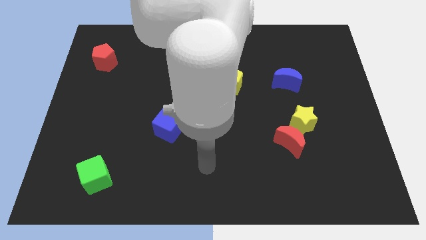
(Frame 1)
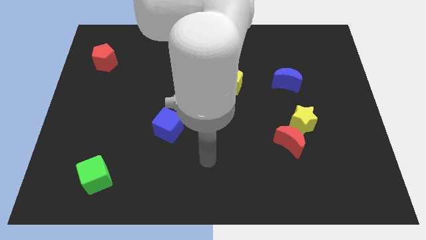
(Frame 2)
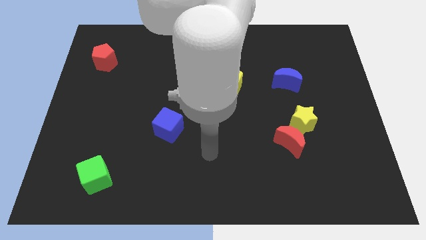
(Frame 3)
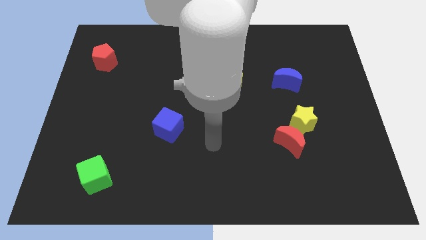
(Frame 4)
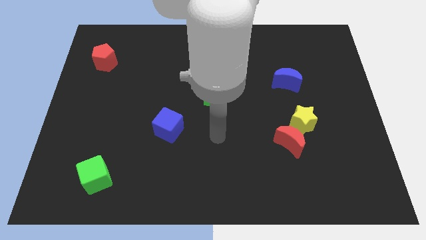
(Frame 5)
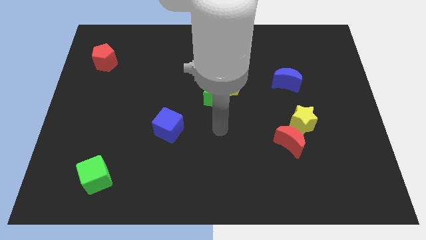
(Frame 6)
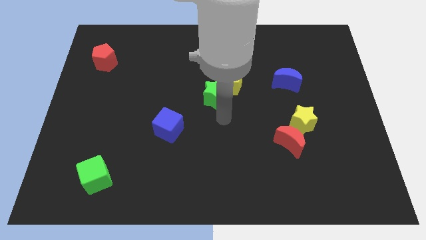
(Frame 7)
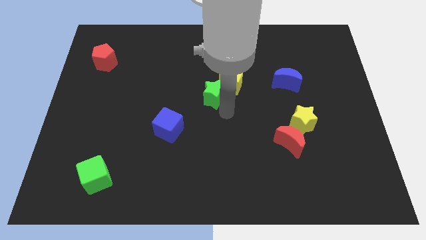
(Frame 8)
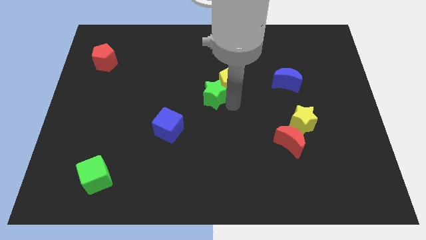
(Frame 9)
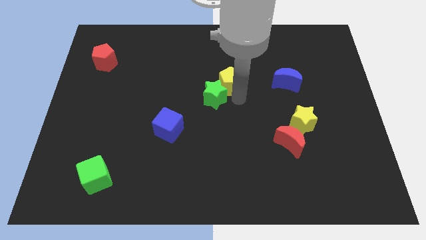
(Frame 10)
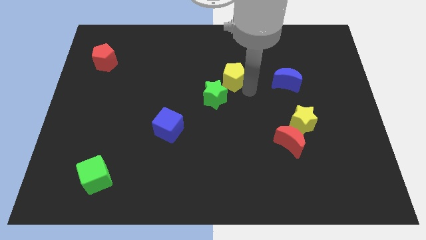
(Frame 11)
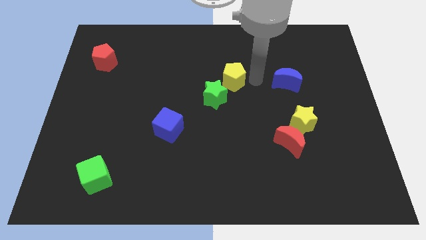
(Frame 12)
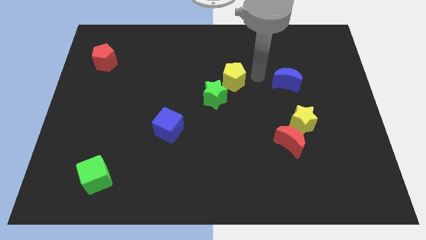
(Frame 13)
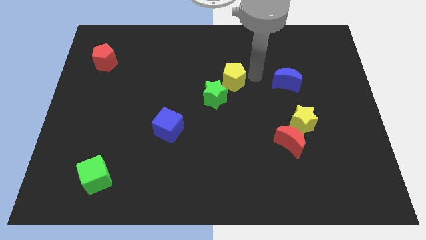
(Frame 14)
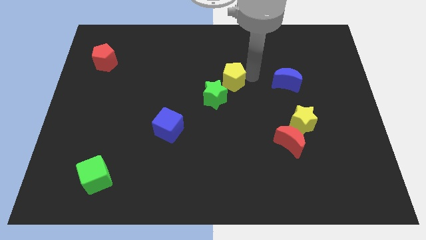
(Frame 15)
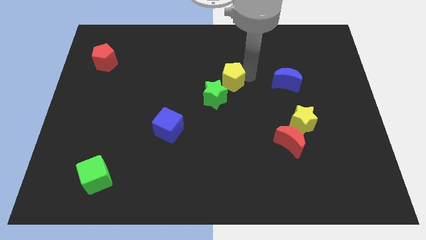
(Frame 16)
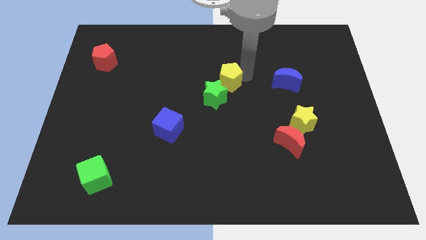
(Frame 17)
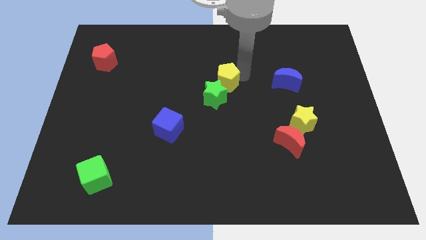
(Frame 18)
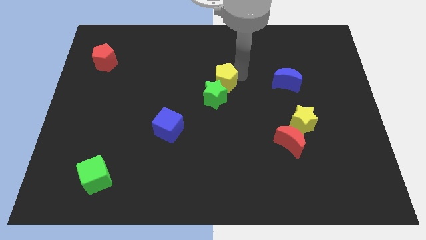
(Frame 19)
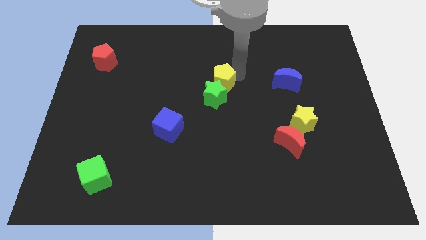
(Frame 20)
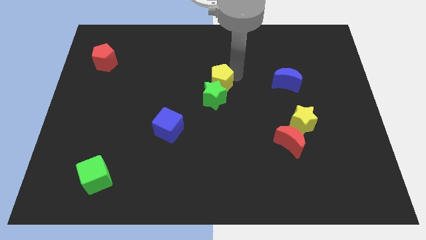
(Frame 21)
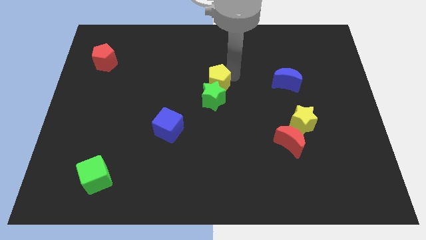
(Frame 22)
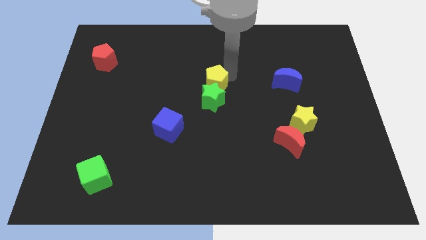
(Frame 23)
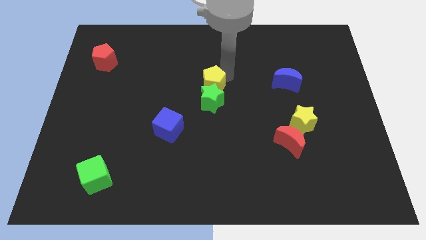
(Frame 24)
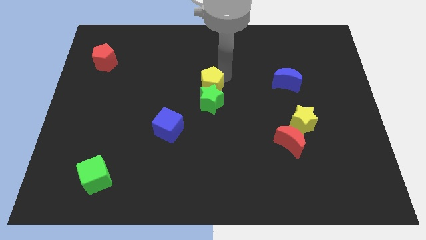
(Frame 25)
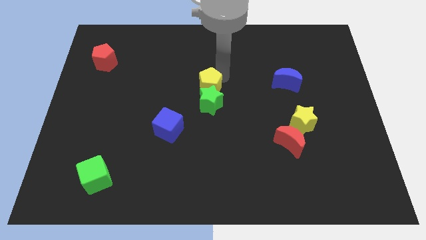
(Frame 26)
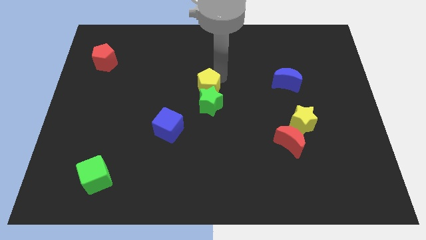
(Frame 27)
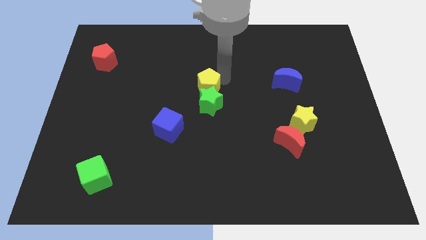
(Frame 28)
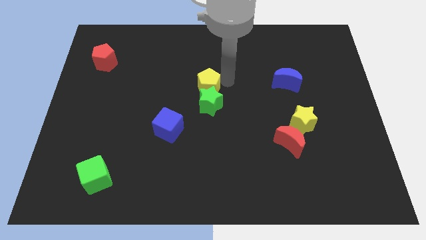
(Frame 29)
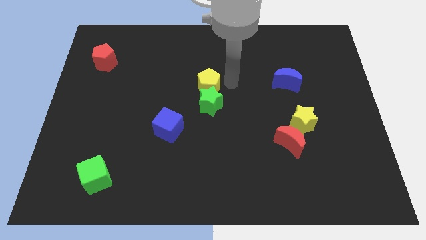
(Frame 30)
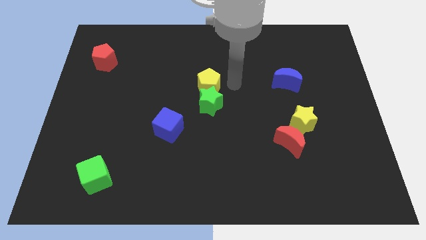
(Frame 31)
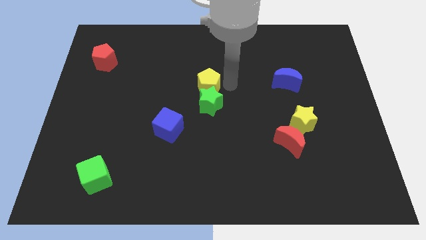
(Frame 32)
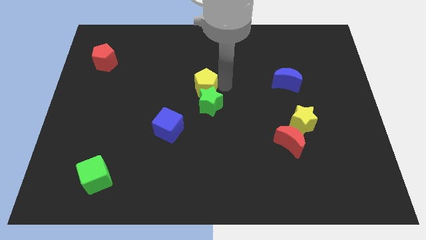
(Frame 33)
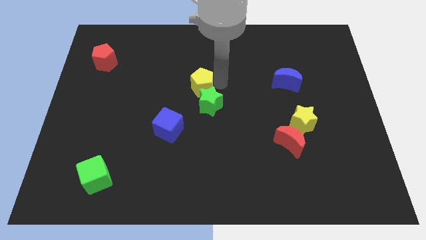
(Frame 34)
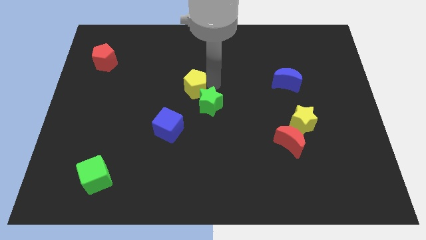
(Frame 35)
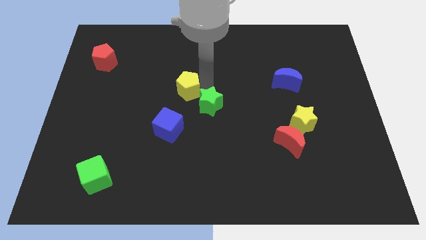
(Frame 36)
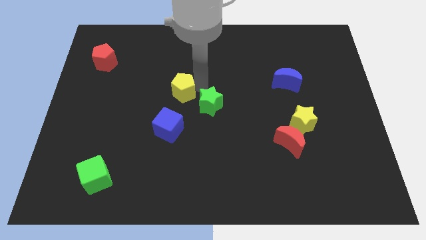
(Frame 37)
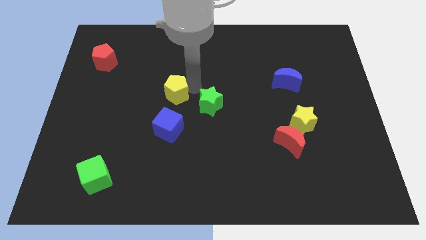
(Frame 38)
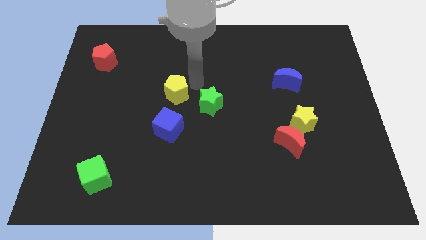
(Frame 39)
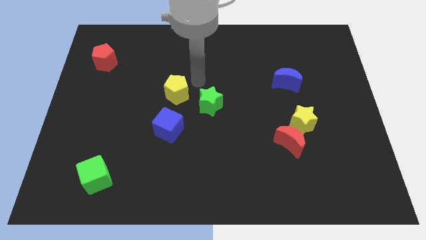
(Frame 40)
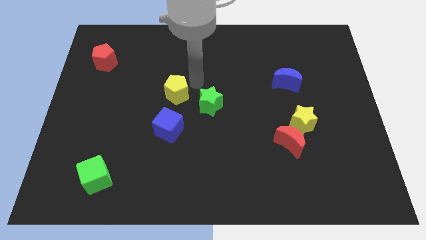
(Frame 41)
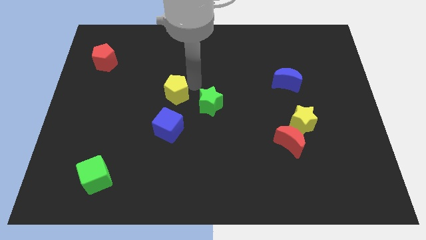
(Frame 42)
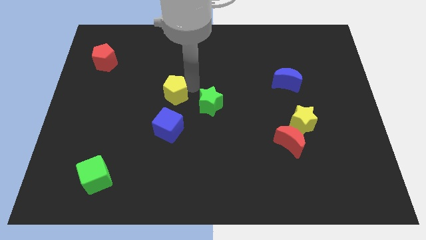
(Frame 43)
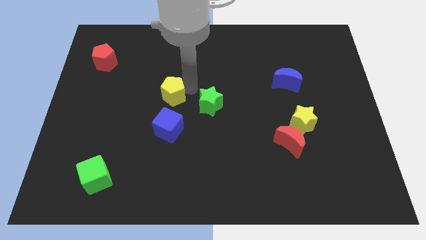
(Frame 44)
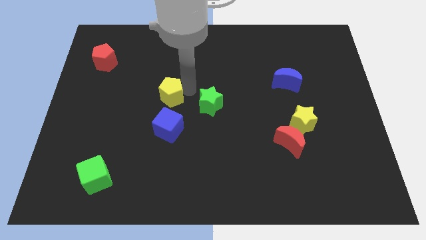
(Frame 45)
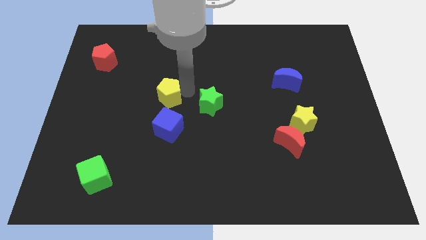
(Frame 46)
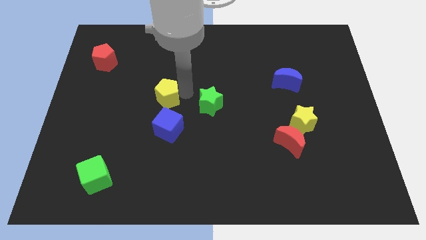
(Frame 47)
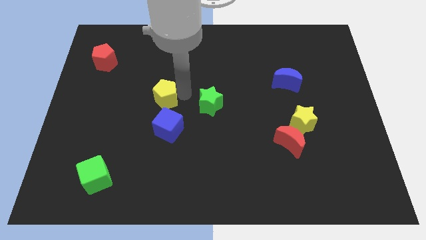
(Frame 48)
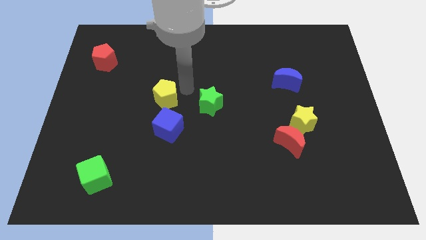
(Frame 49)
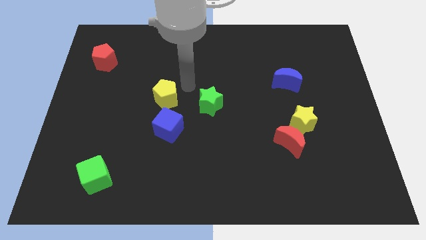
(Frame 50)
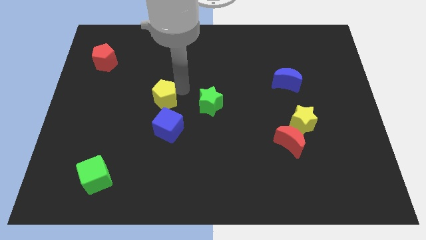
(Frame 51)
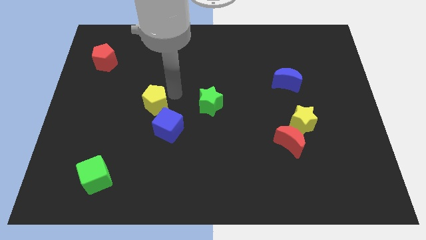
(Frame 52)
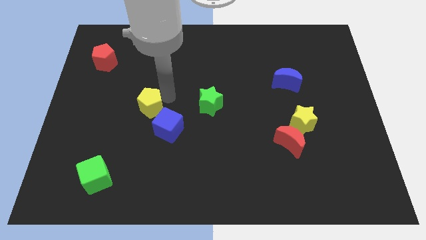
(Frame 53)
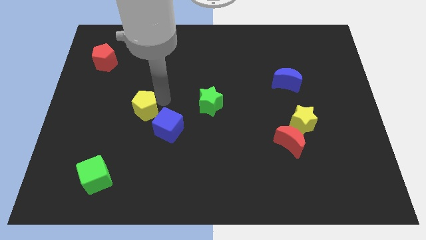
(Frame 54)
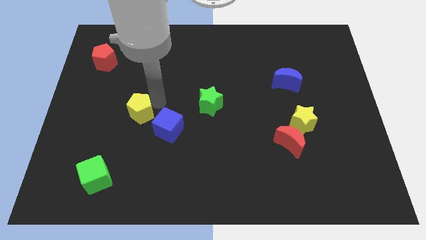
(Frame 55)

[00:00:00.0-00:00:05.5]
put the yellow pentagon to the left of the blue cube
